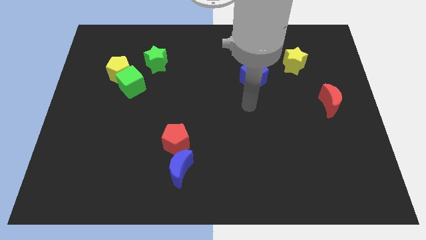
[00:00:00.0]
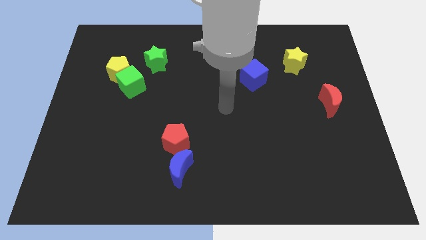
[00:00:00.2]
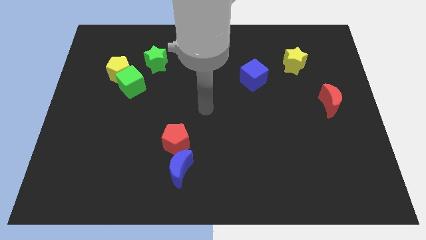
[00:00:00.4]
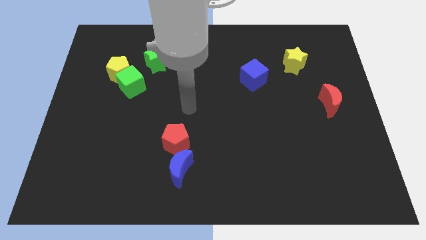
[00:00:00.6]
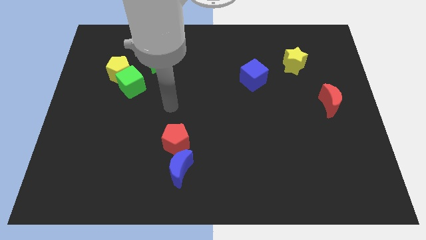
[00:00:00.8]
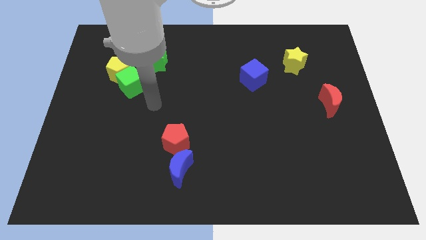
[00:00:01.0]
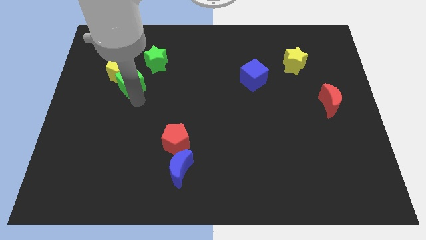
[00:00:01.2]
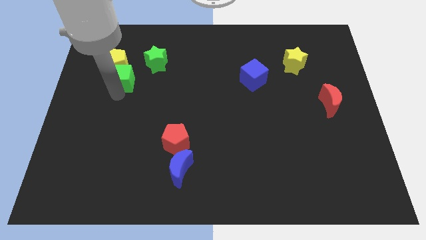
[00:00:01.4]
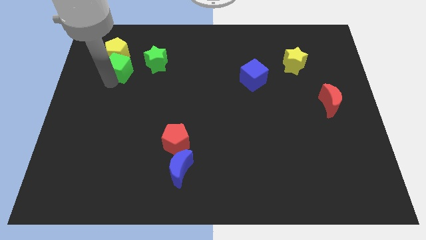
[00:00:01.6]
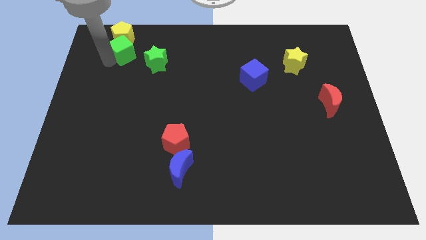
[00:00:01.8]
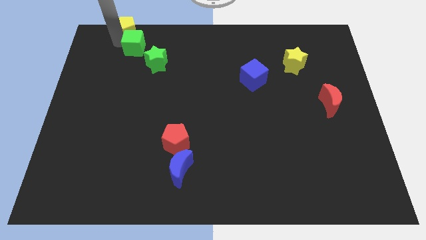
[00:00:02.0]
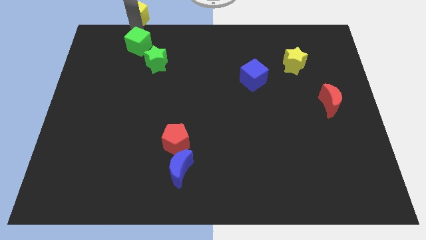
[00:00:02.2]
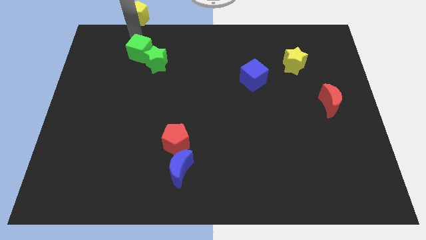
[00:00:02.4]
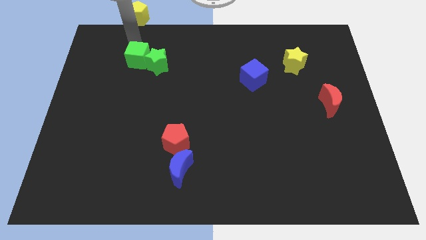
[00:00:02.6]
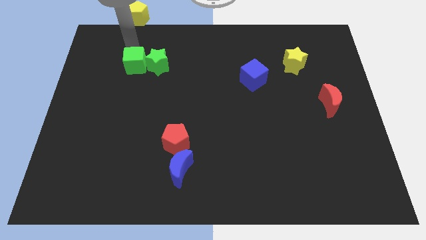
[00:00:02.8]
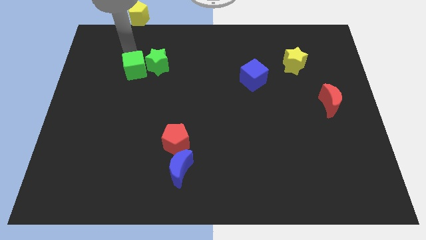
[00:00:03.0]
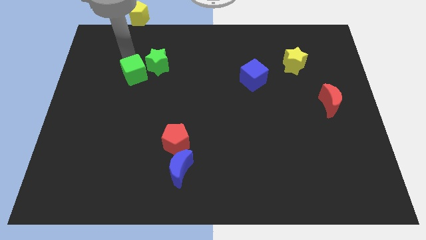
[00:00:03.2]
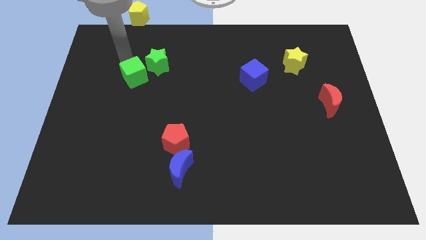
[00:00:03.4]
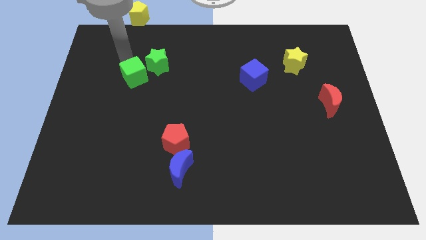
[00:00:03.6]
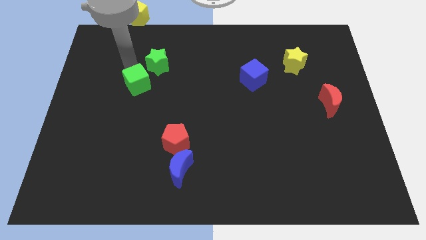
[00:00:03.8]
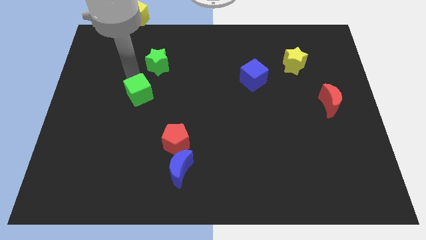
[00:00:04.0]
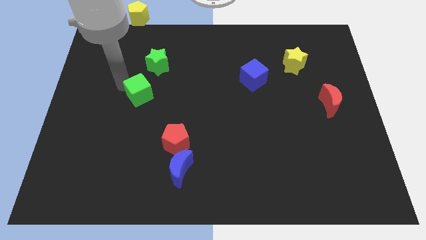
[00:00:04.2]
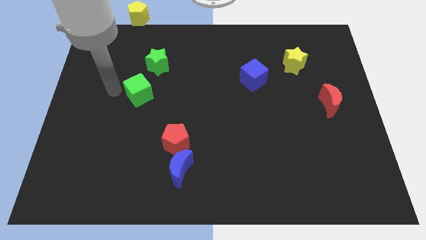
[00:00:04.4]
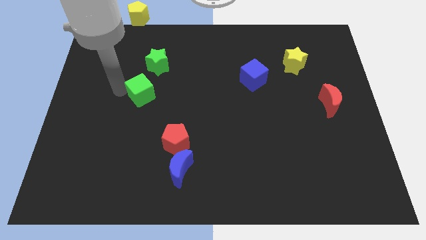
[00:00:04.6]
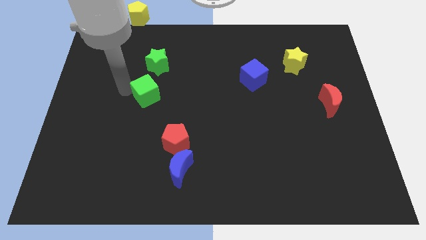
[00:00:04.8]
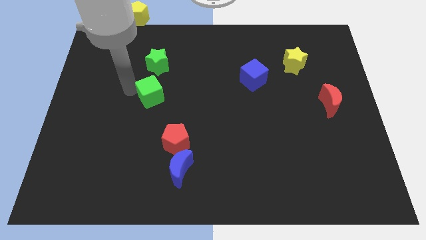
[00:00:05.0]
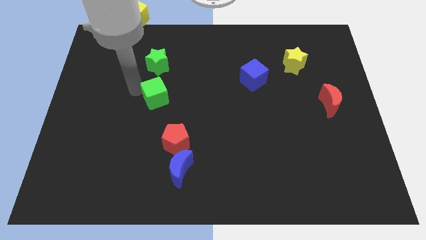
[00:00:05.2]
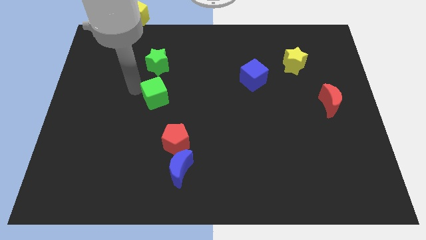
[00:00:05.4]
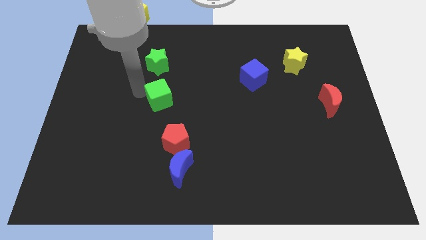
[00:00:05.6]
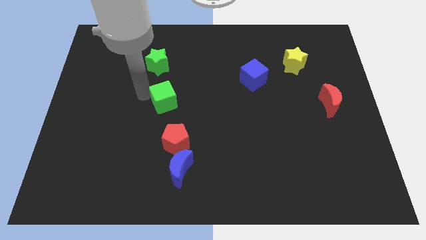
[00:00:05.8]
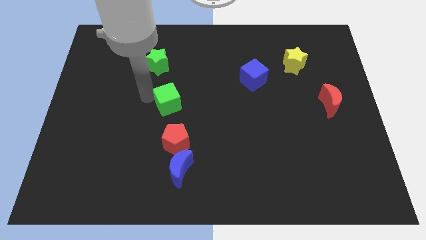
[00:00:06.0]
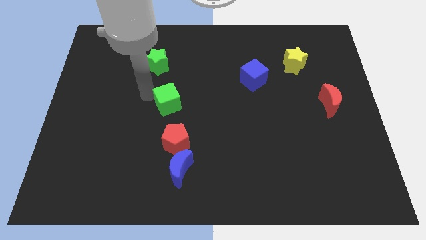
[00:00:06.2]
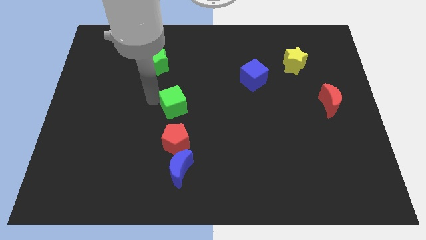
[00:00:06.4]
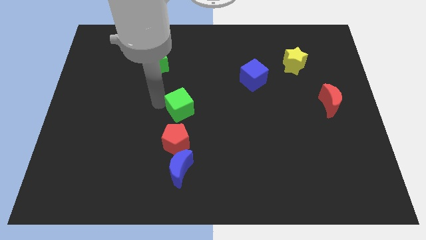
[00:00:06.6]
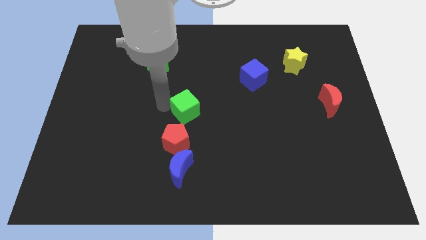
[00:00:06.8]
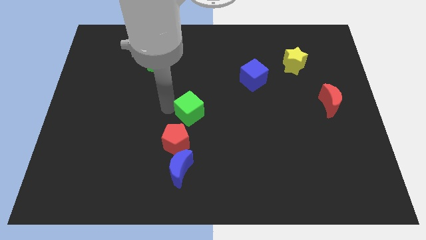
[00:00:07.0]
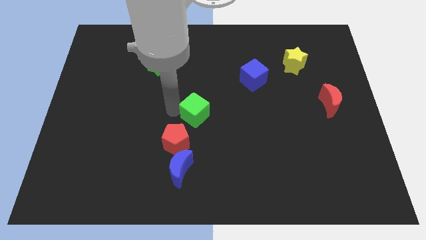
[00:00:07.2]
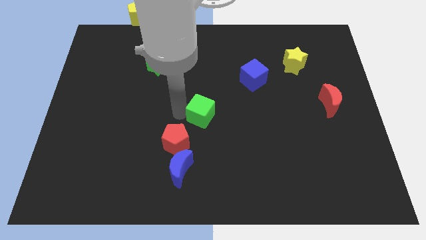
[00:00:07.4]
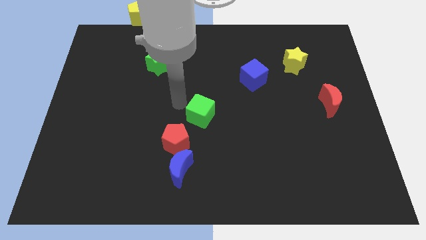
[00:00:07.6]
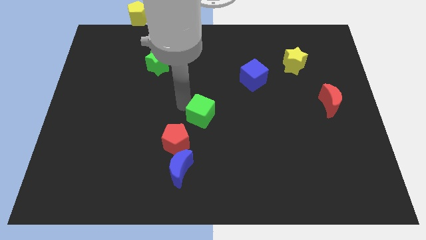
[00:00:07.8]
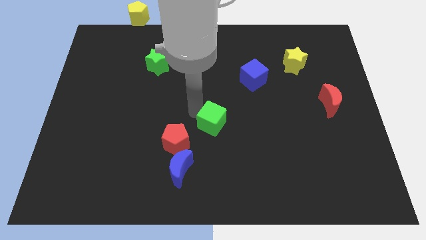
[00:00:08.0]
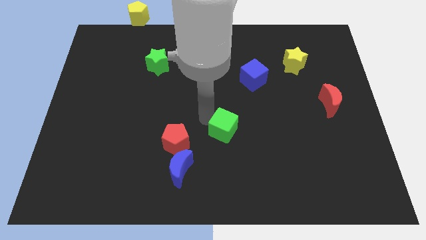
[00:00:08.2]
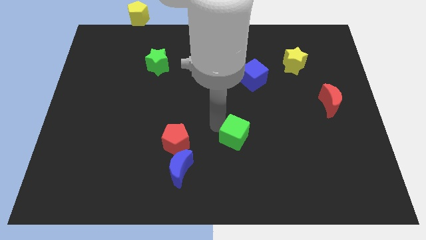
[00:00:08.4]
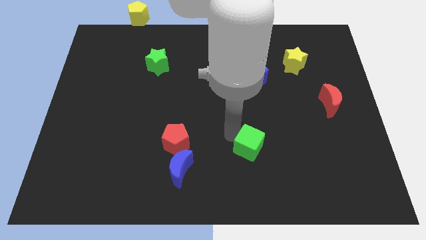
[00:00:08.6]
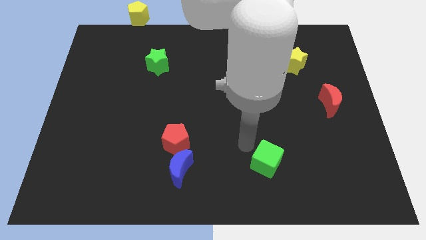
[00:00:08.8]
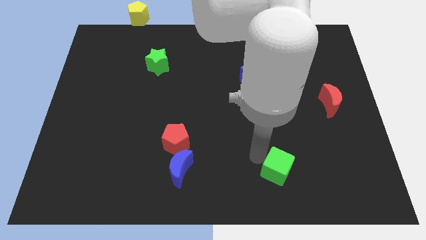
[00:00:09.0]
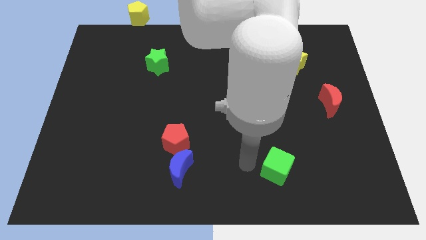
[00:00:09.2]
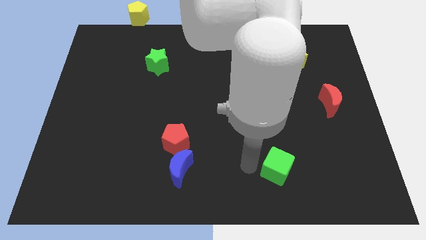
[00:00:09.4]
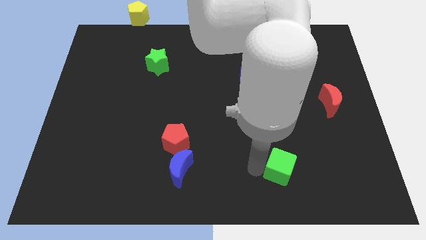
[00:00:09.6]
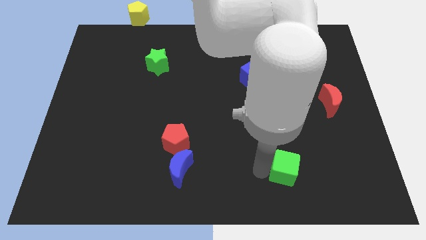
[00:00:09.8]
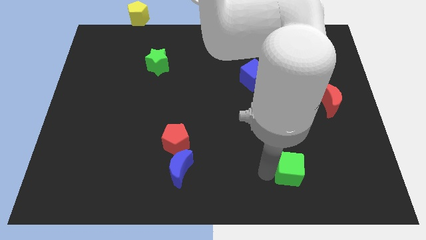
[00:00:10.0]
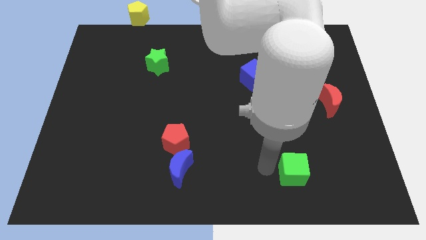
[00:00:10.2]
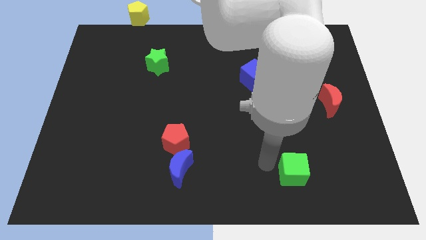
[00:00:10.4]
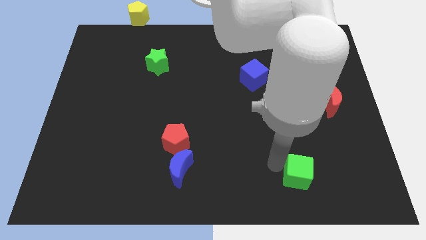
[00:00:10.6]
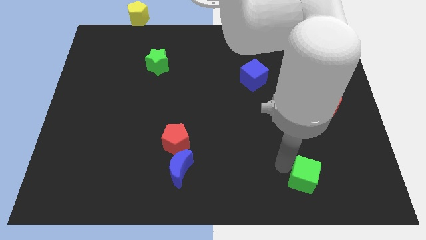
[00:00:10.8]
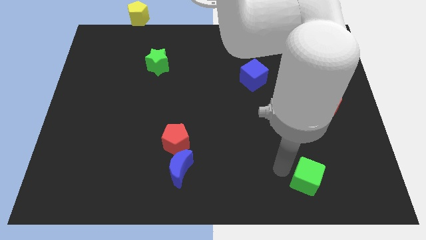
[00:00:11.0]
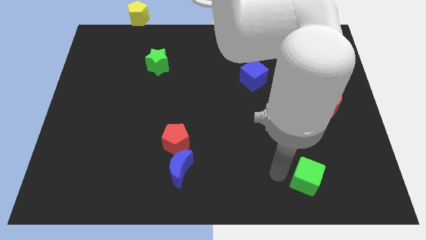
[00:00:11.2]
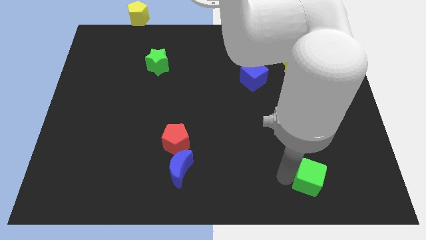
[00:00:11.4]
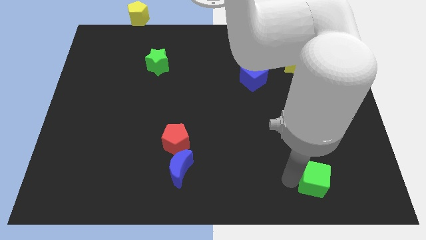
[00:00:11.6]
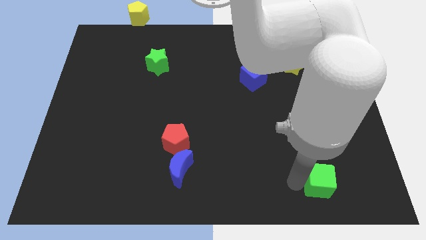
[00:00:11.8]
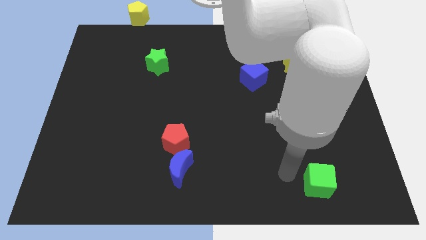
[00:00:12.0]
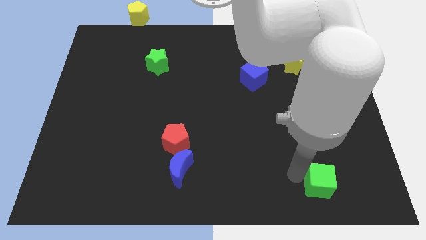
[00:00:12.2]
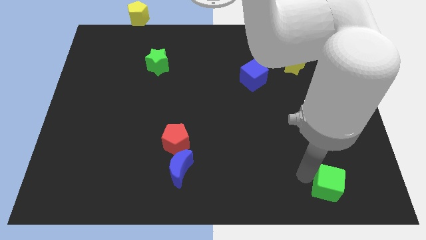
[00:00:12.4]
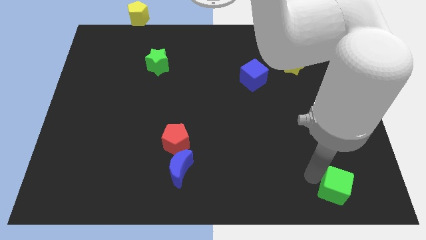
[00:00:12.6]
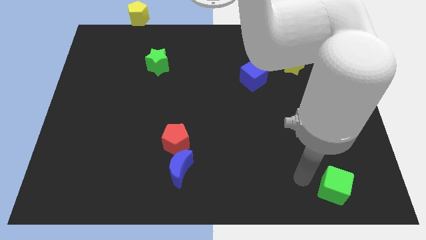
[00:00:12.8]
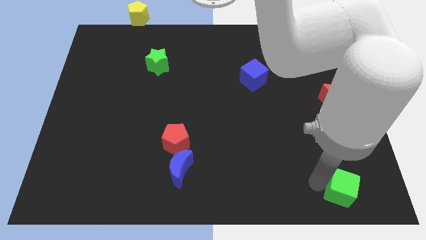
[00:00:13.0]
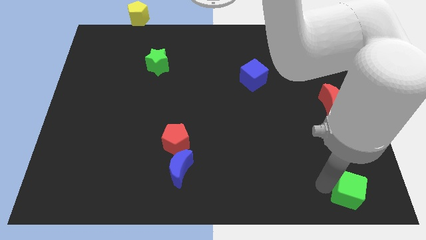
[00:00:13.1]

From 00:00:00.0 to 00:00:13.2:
push the green cube to the lower right corner
